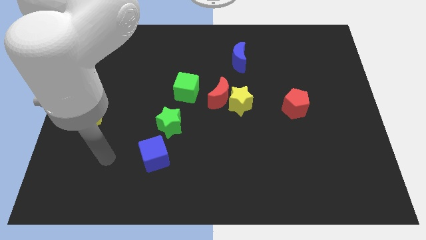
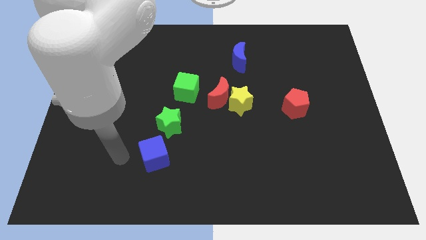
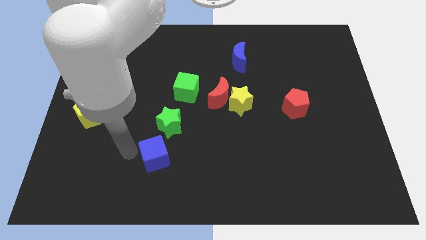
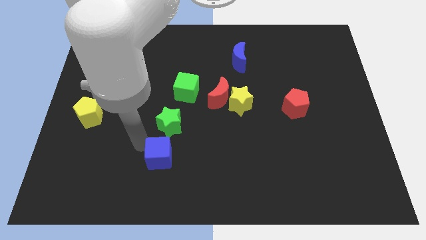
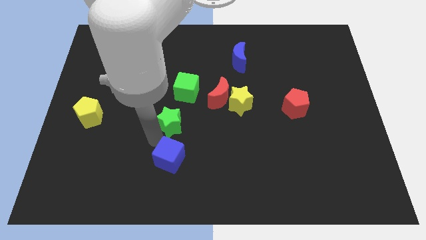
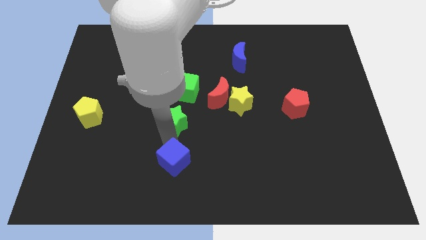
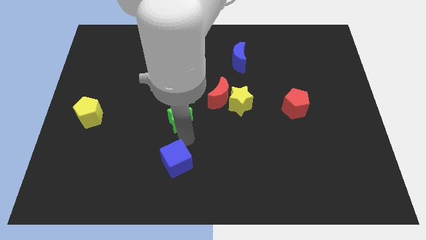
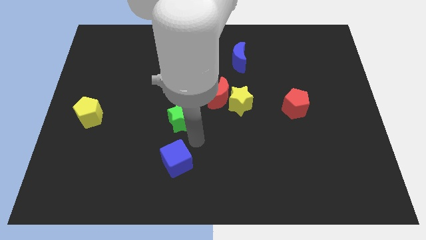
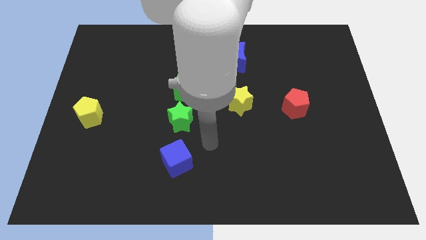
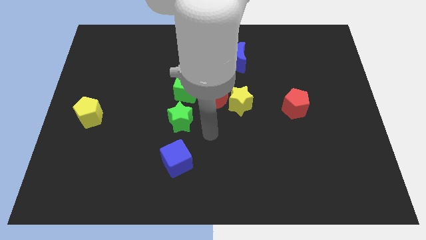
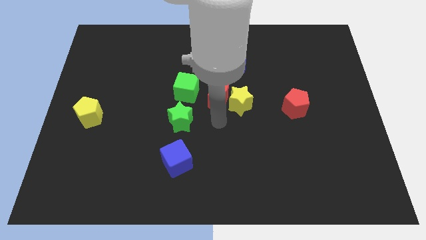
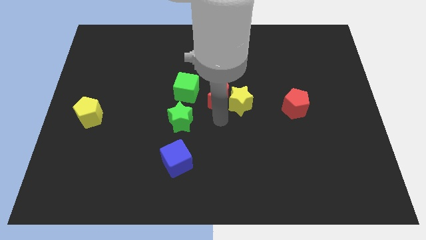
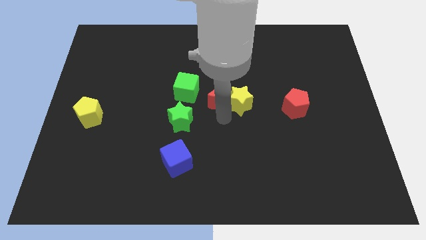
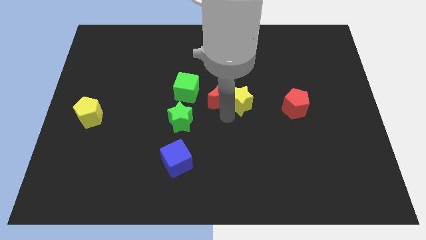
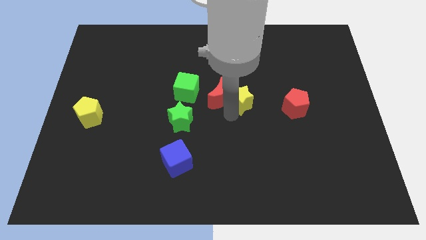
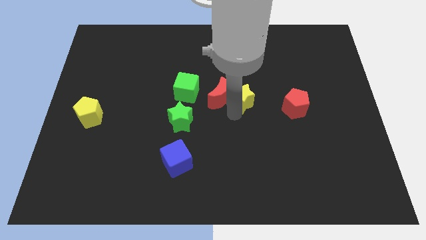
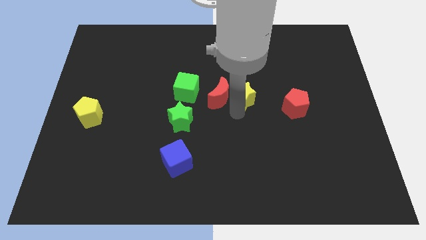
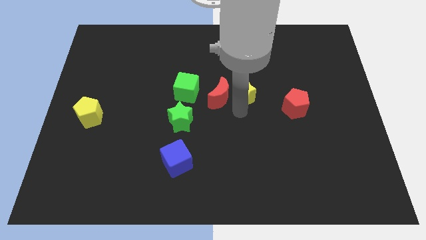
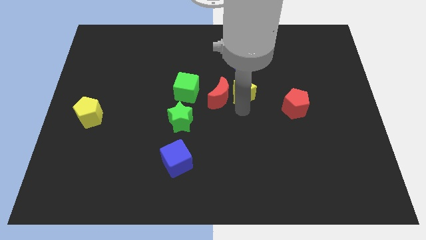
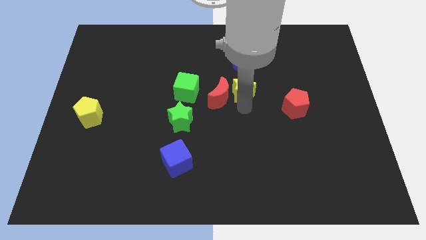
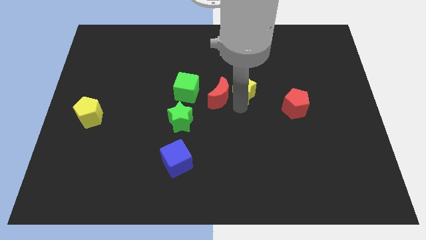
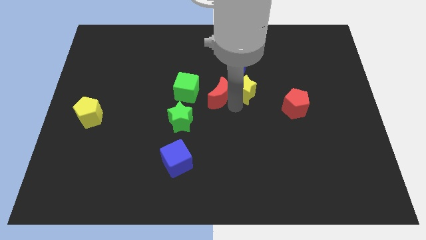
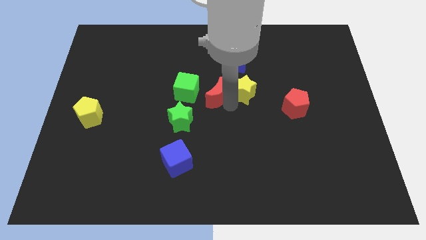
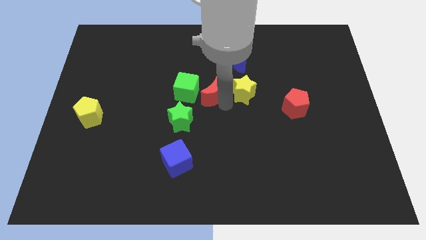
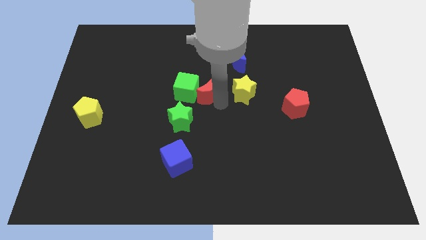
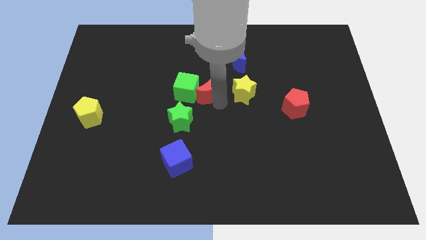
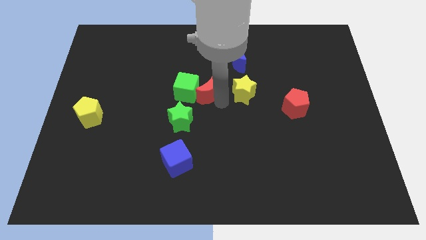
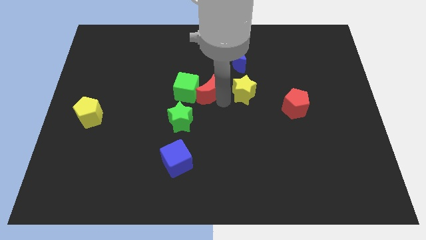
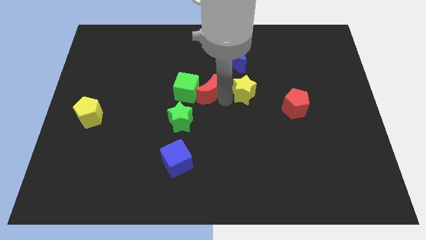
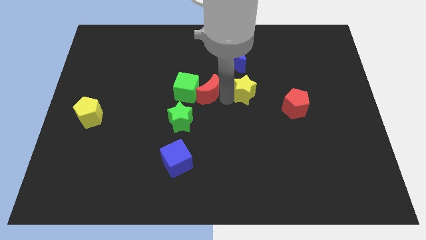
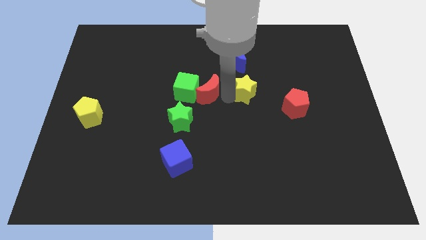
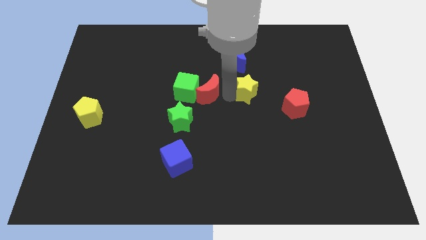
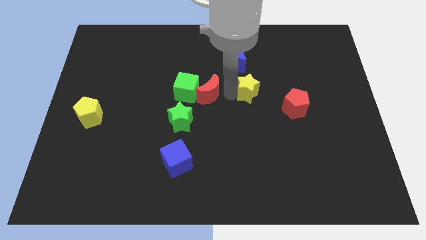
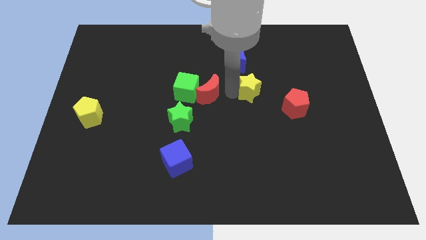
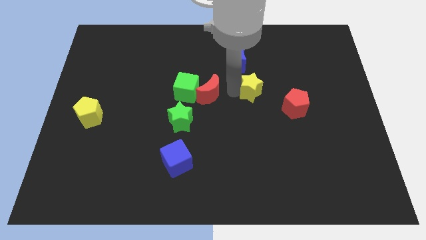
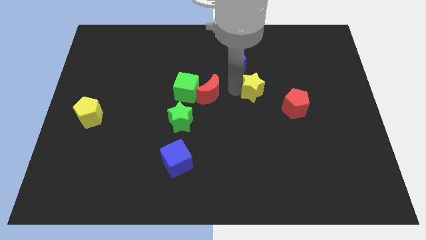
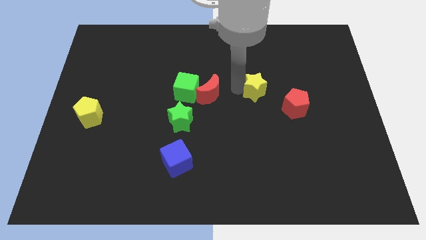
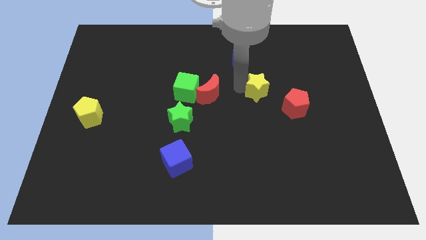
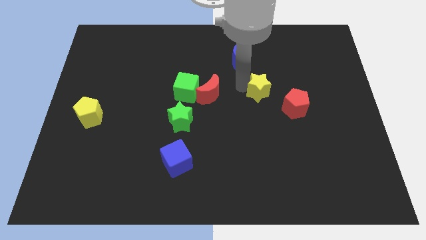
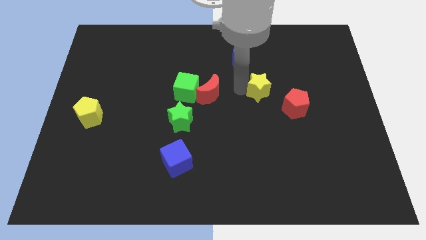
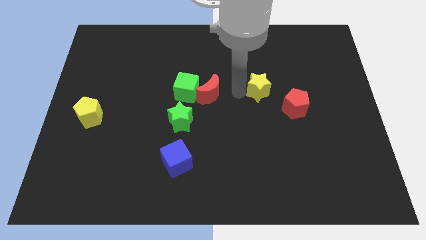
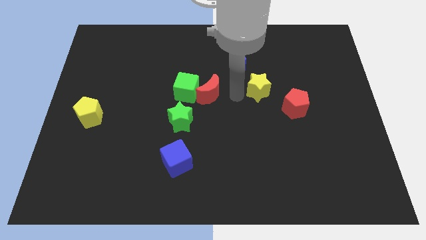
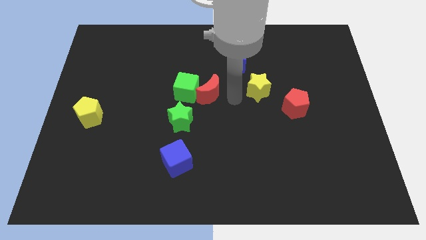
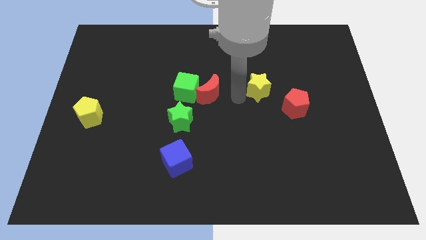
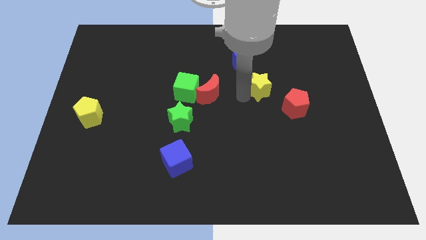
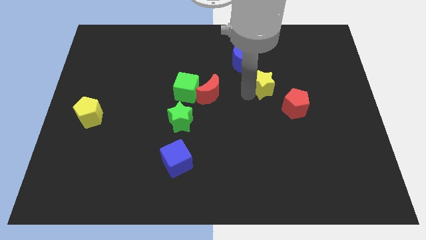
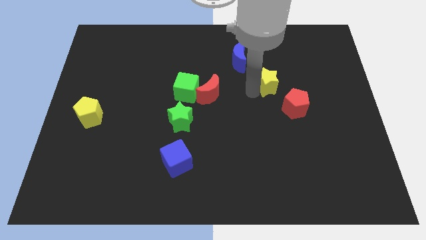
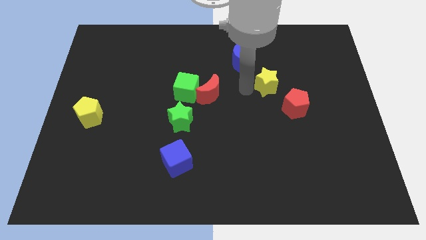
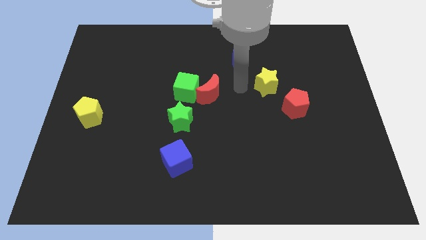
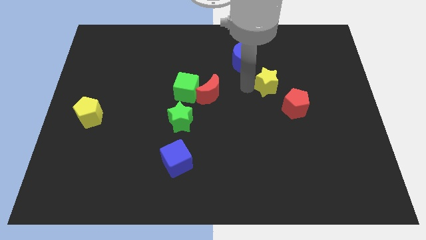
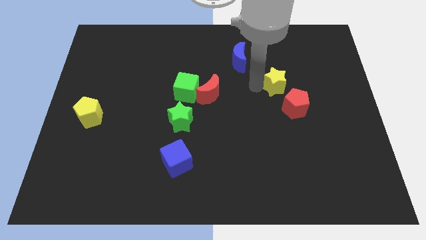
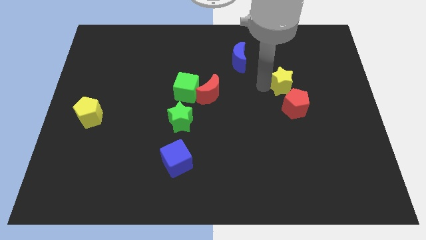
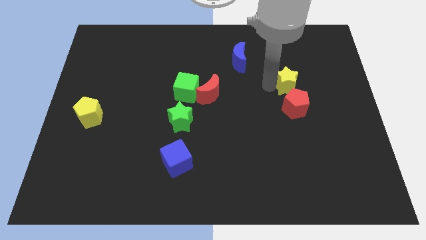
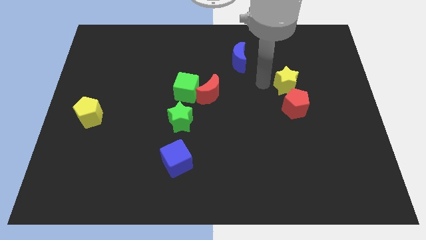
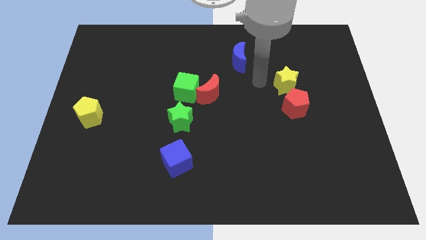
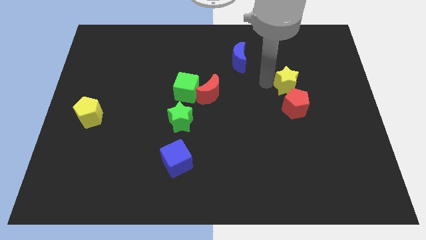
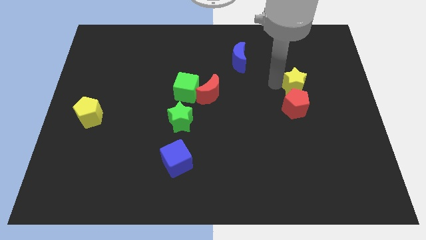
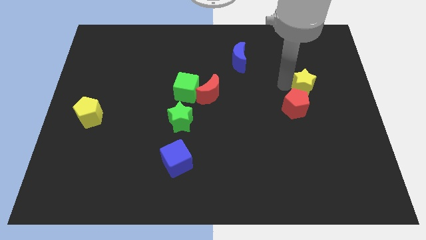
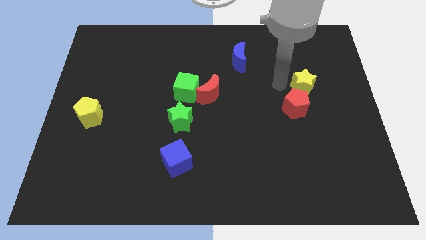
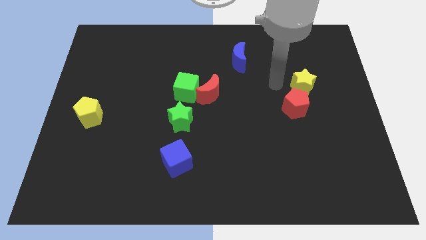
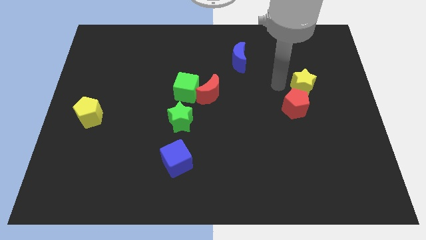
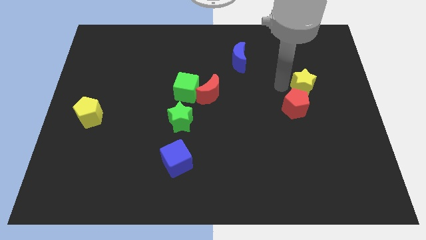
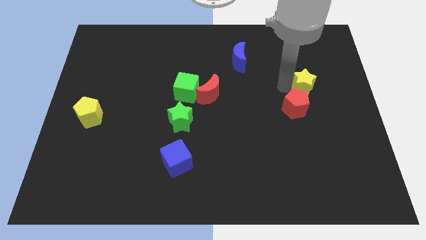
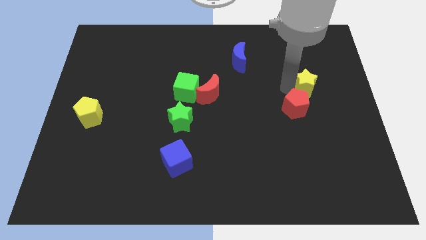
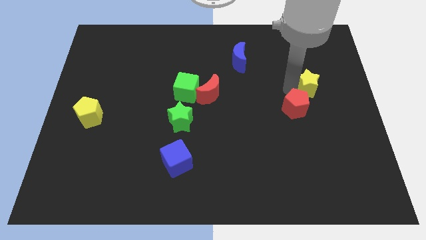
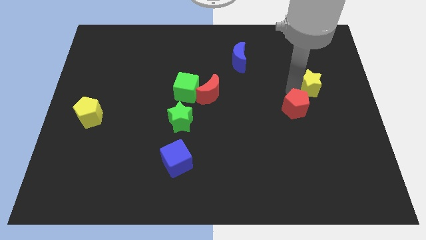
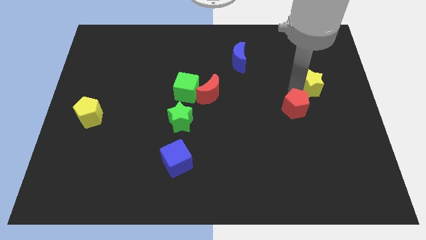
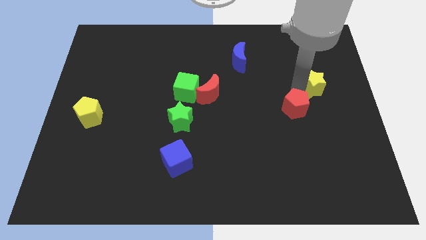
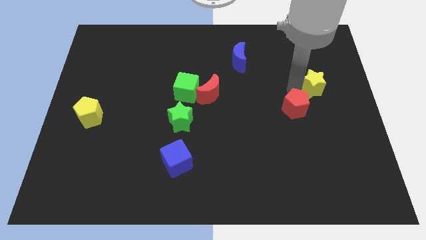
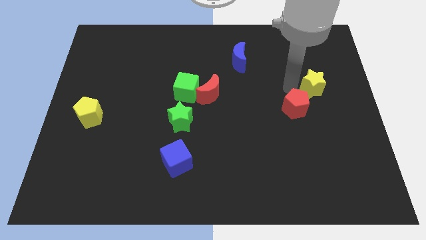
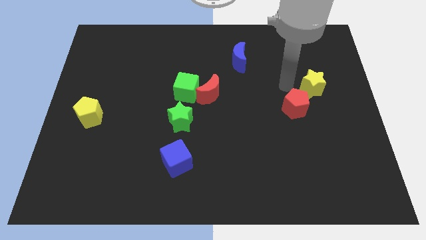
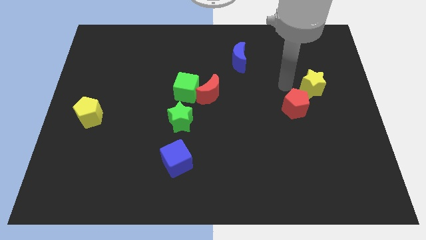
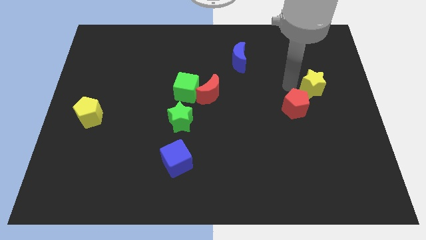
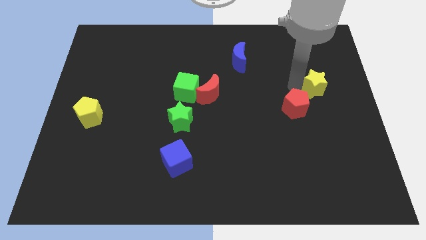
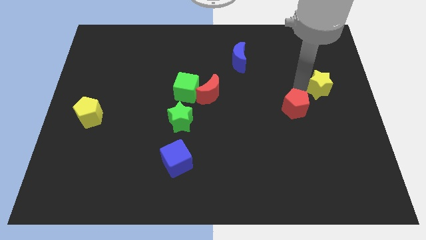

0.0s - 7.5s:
push the yellow star to the right side

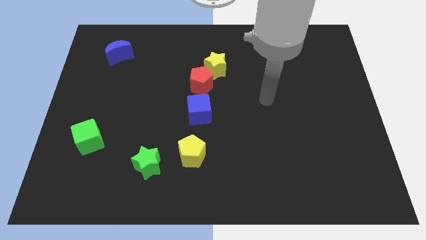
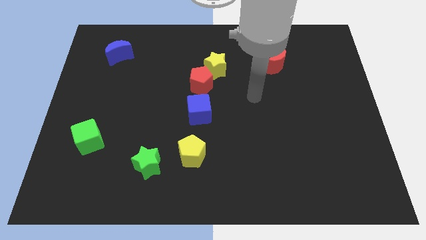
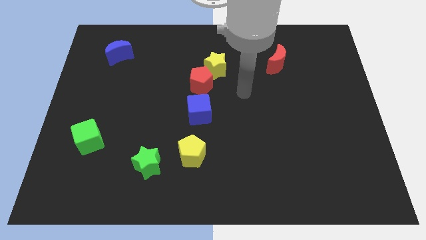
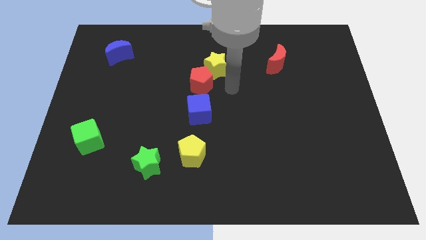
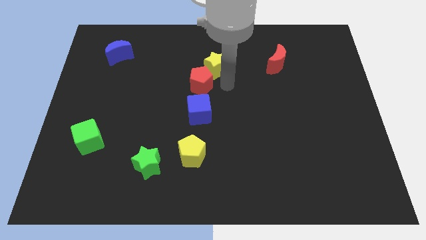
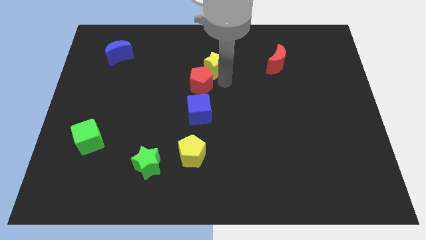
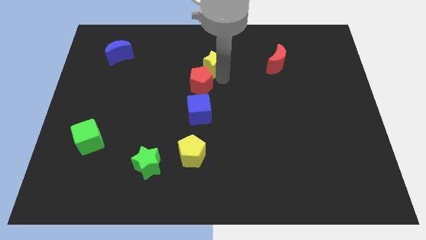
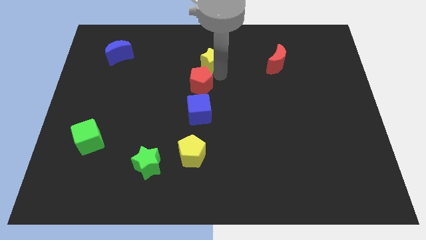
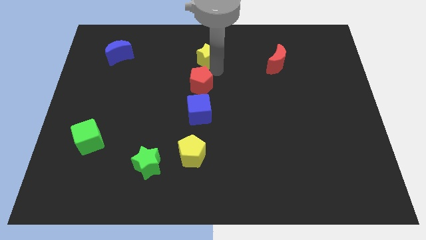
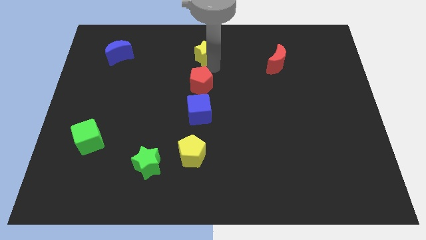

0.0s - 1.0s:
slide the yellow star to the top
